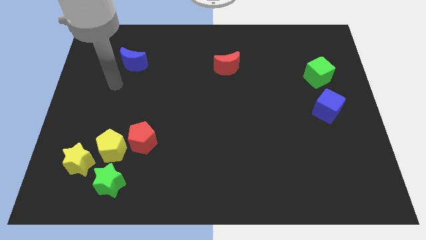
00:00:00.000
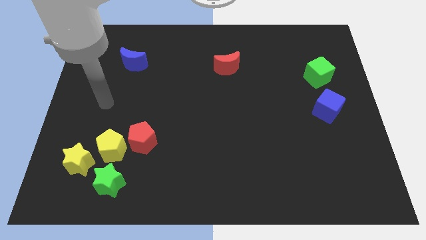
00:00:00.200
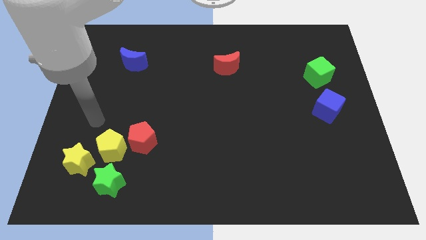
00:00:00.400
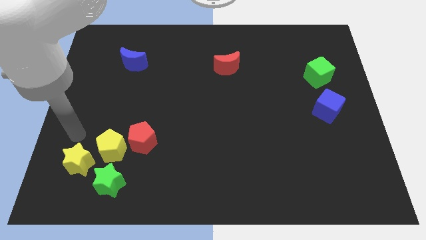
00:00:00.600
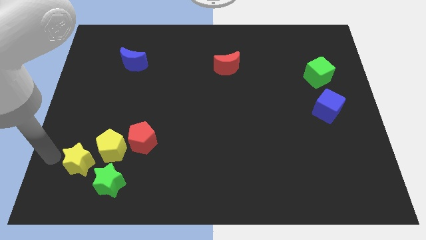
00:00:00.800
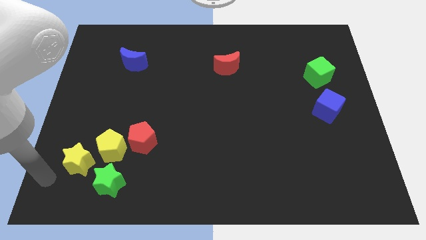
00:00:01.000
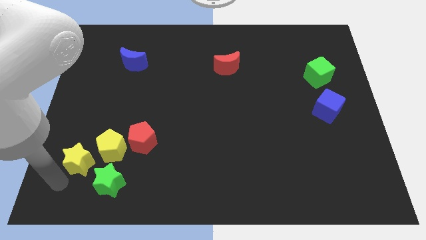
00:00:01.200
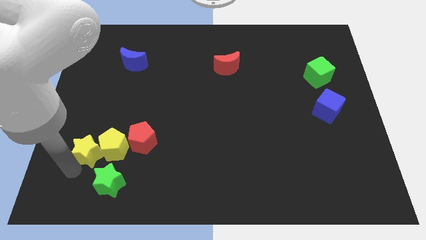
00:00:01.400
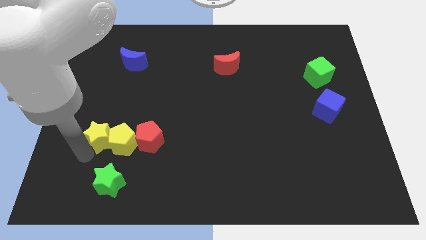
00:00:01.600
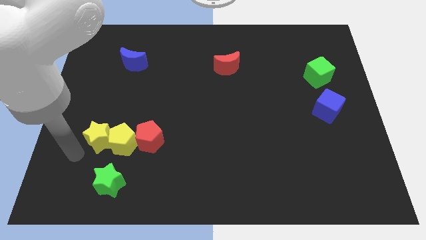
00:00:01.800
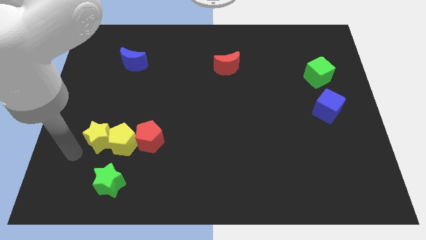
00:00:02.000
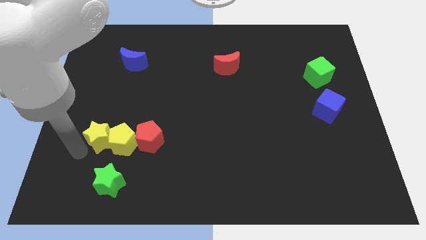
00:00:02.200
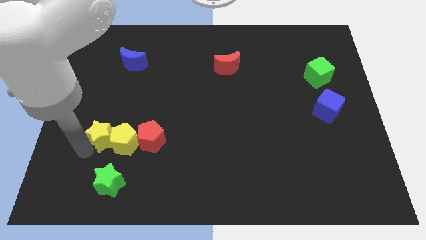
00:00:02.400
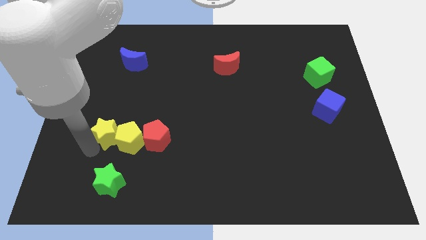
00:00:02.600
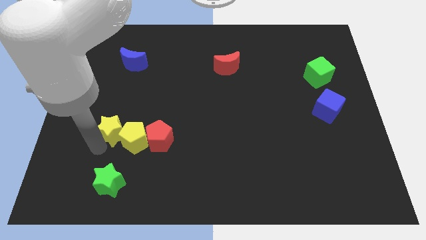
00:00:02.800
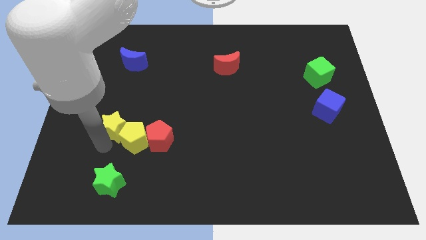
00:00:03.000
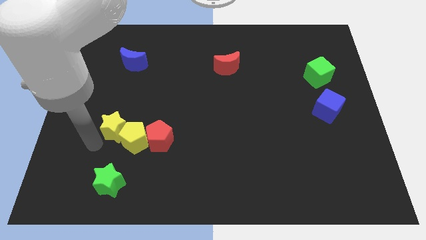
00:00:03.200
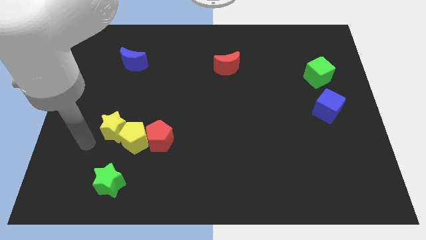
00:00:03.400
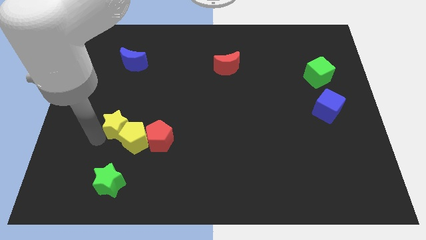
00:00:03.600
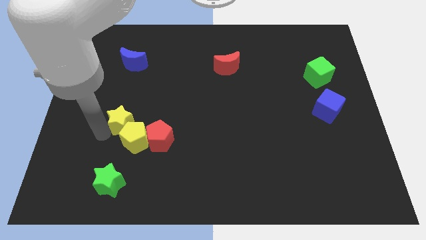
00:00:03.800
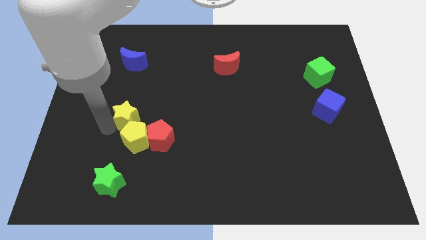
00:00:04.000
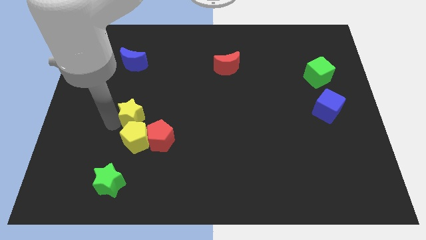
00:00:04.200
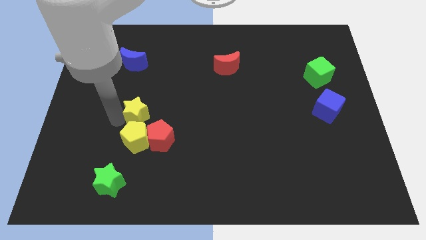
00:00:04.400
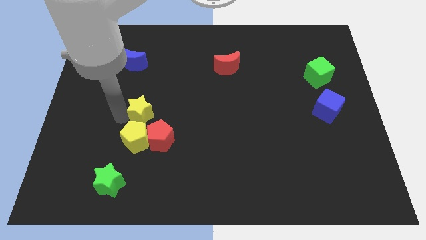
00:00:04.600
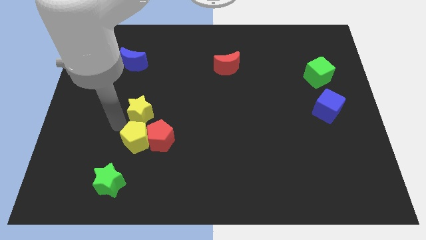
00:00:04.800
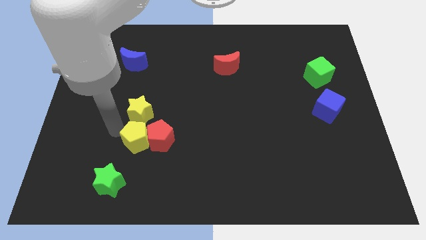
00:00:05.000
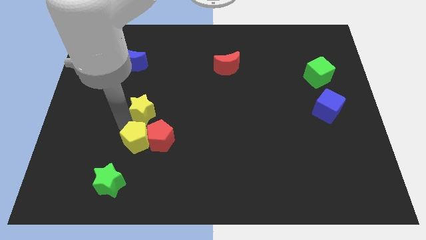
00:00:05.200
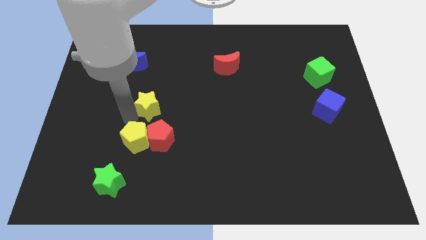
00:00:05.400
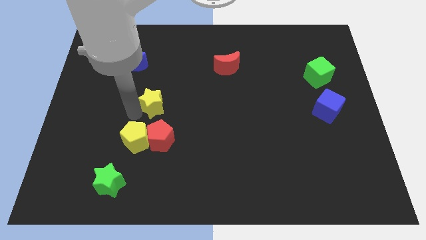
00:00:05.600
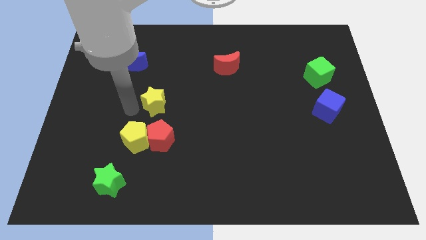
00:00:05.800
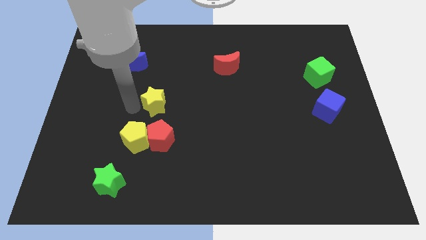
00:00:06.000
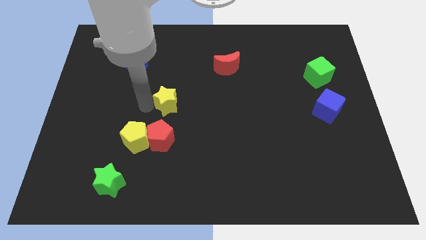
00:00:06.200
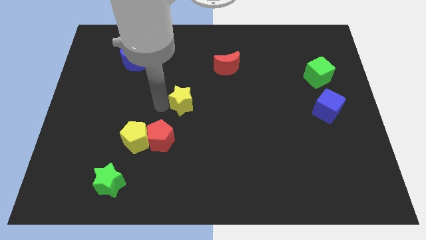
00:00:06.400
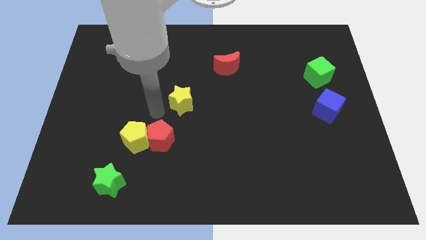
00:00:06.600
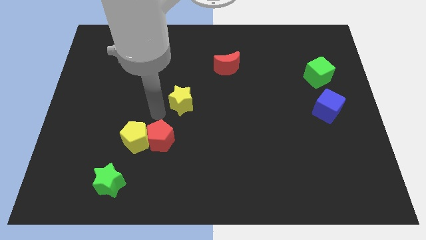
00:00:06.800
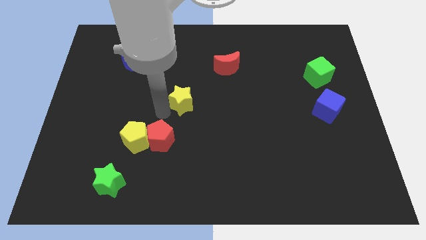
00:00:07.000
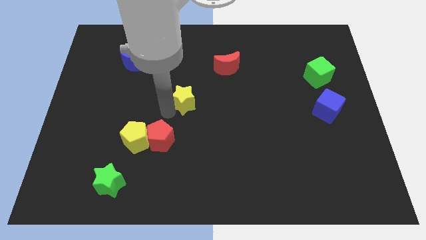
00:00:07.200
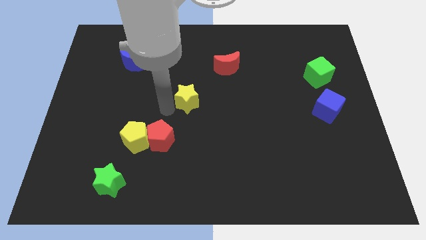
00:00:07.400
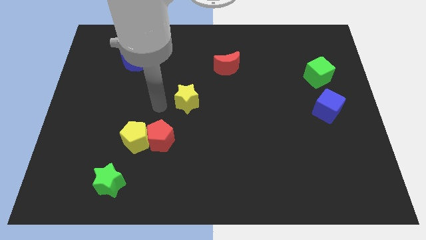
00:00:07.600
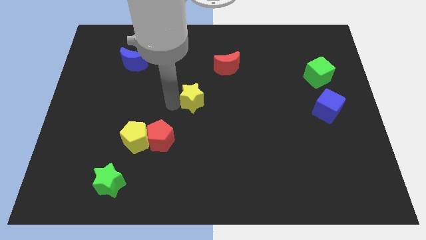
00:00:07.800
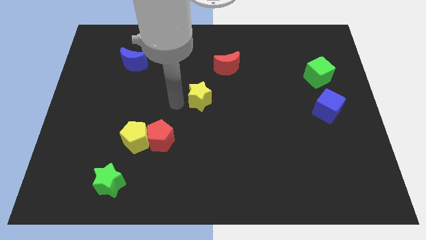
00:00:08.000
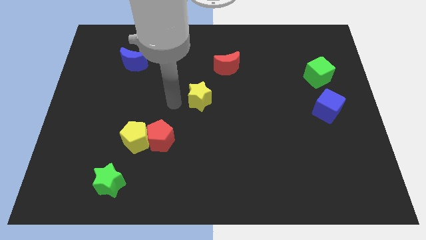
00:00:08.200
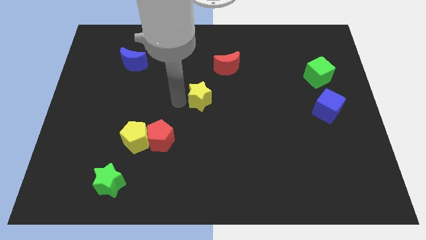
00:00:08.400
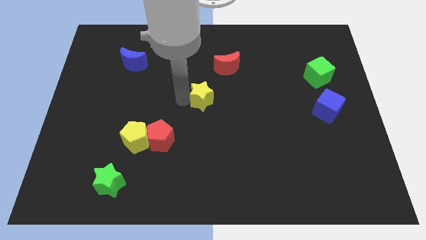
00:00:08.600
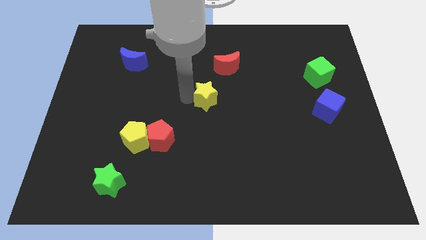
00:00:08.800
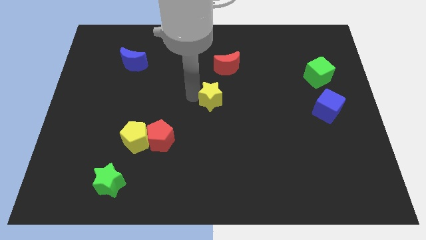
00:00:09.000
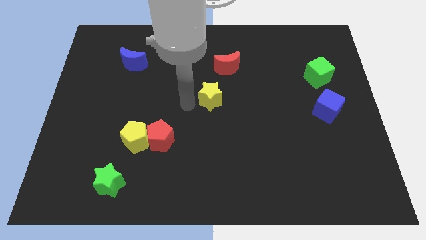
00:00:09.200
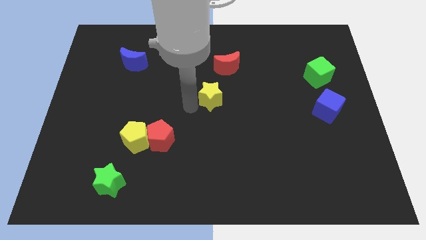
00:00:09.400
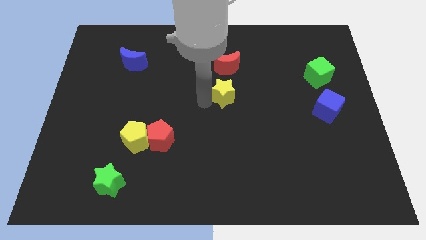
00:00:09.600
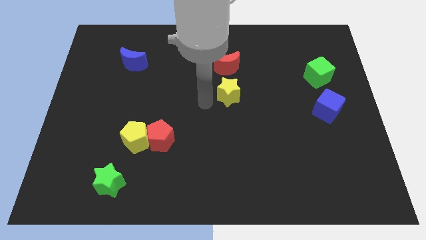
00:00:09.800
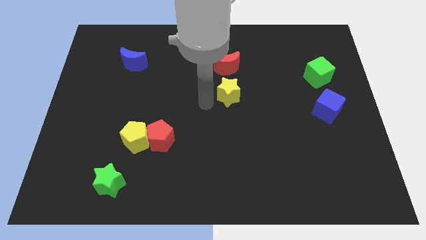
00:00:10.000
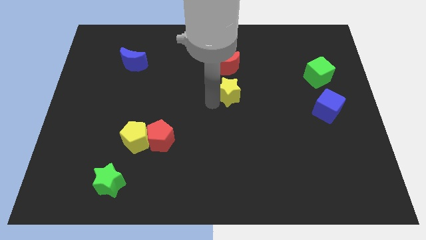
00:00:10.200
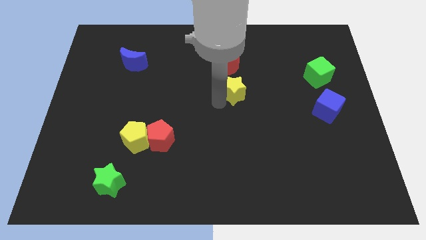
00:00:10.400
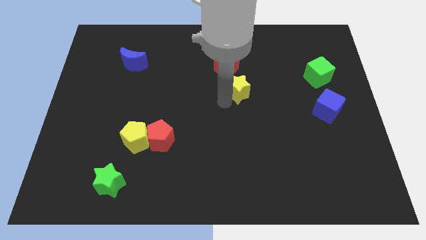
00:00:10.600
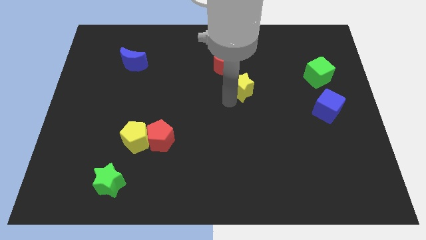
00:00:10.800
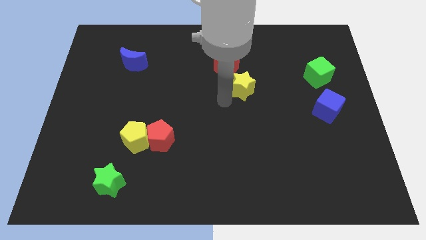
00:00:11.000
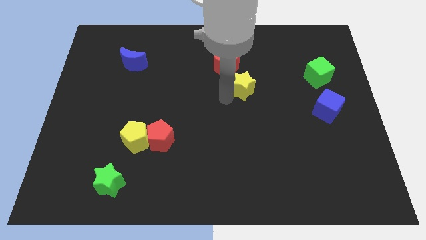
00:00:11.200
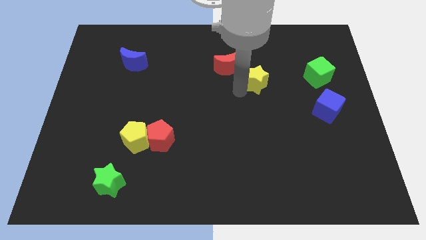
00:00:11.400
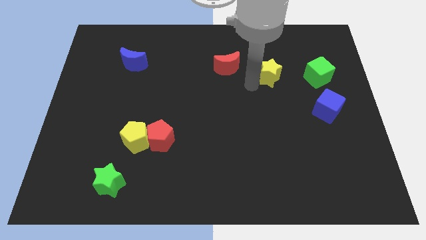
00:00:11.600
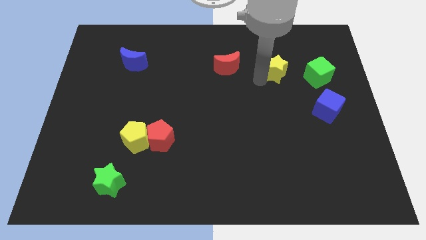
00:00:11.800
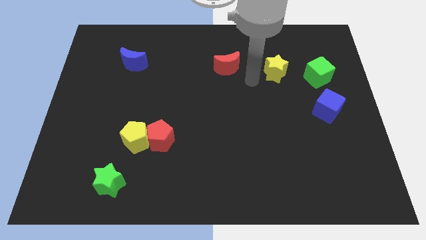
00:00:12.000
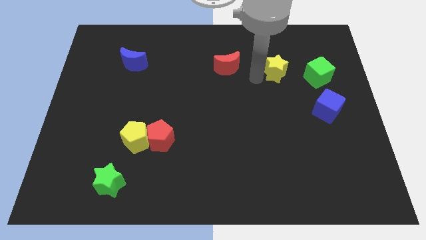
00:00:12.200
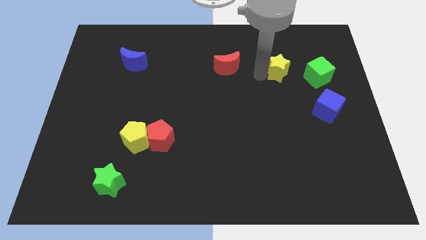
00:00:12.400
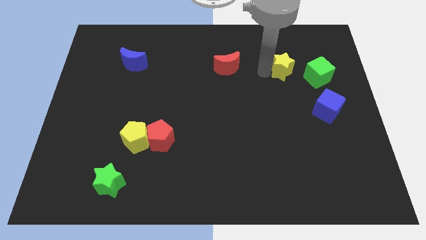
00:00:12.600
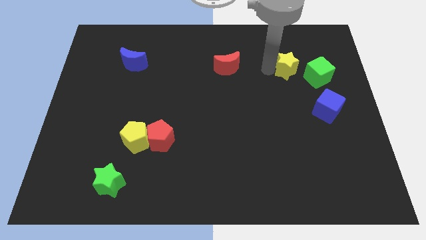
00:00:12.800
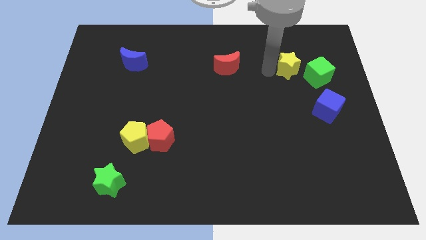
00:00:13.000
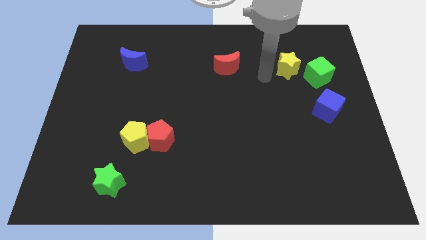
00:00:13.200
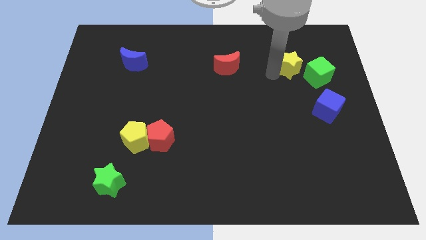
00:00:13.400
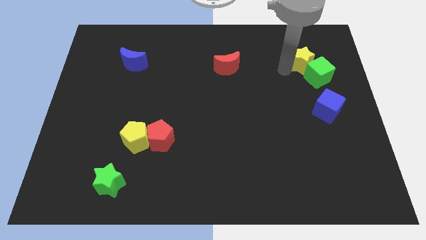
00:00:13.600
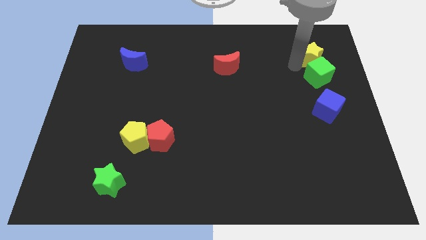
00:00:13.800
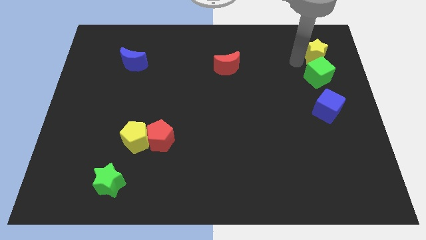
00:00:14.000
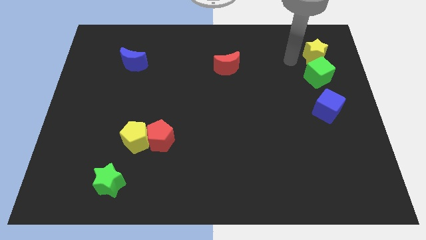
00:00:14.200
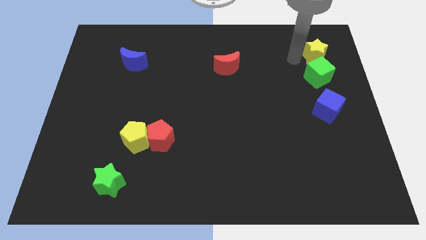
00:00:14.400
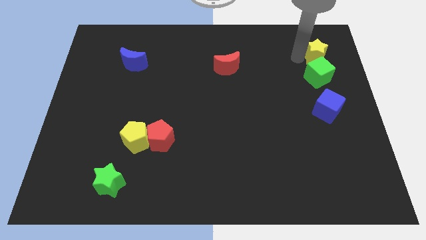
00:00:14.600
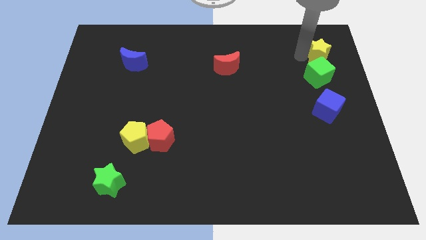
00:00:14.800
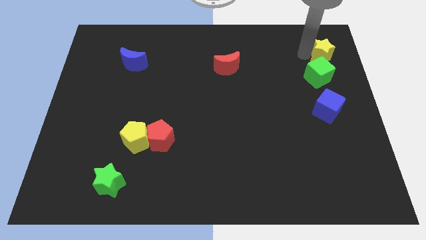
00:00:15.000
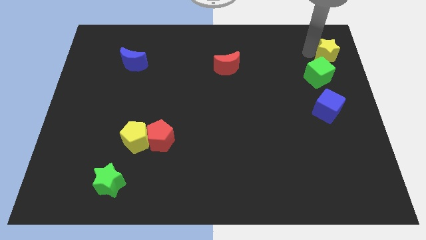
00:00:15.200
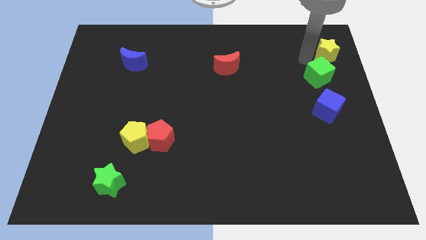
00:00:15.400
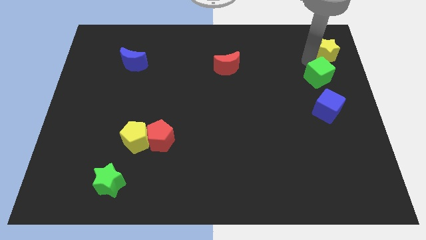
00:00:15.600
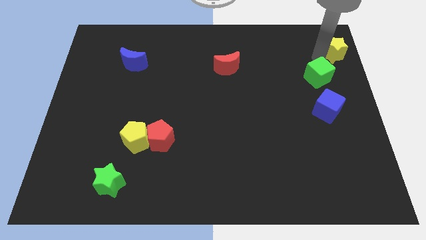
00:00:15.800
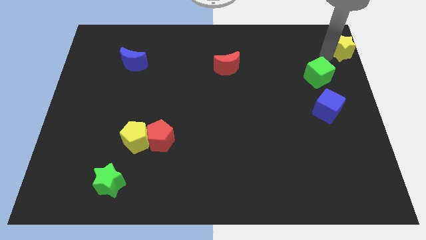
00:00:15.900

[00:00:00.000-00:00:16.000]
put the yellow star to the top right of the board
